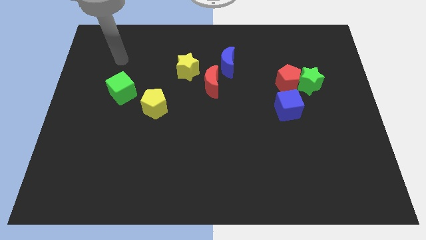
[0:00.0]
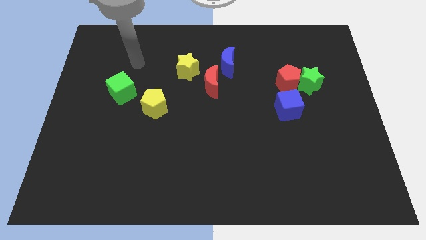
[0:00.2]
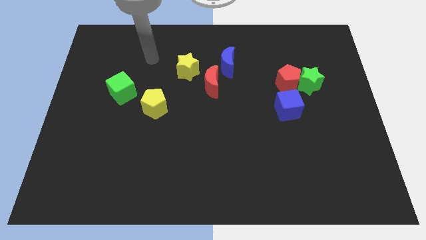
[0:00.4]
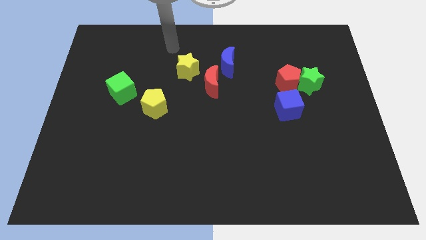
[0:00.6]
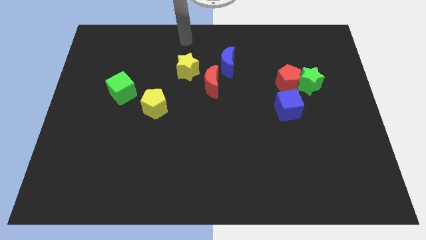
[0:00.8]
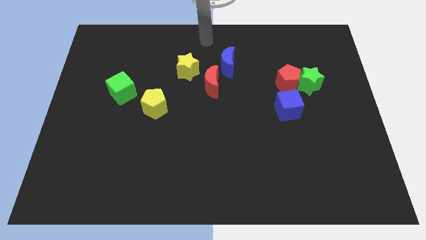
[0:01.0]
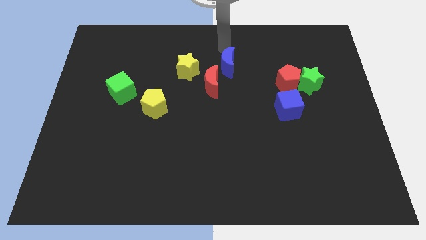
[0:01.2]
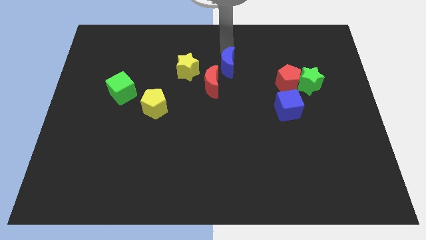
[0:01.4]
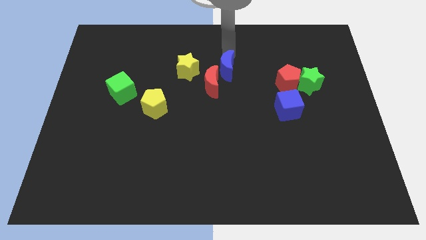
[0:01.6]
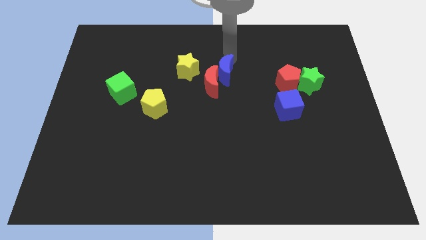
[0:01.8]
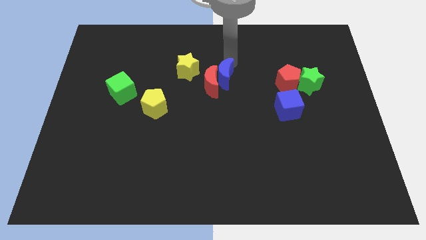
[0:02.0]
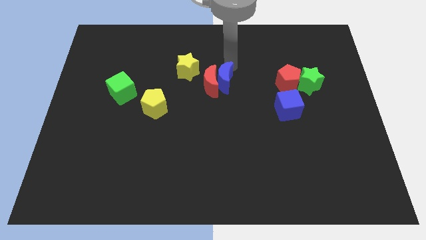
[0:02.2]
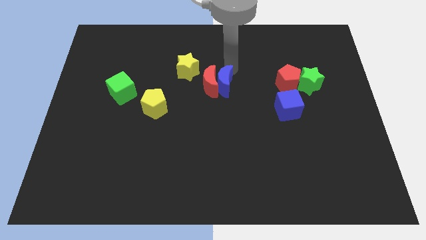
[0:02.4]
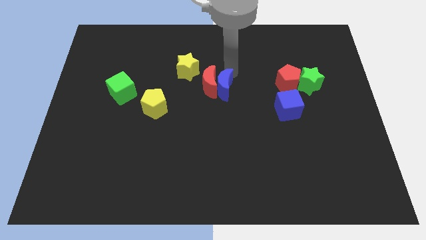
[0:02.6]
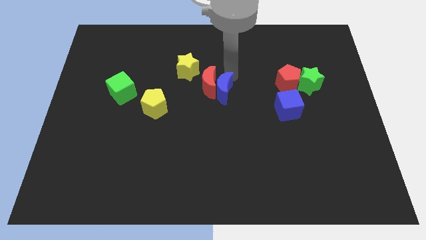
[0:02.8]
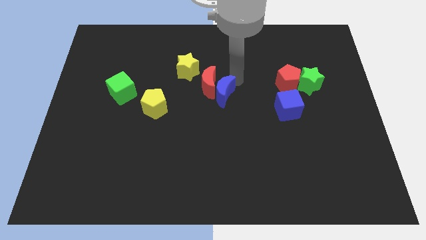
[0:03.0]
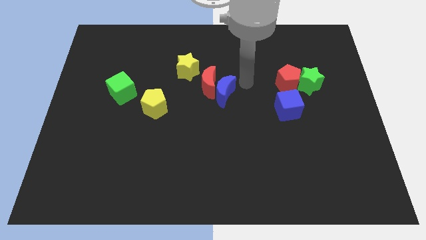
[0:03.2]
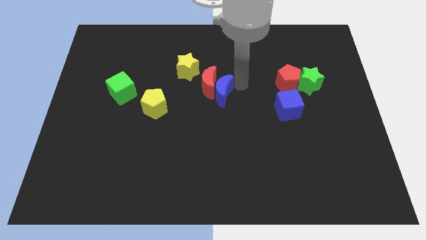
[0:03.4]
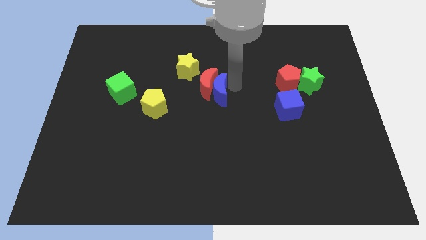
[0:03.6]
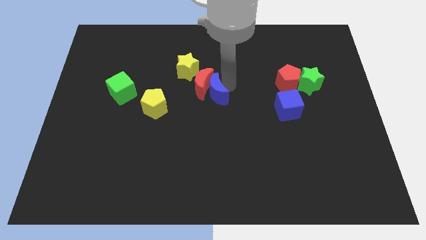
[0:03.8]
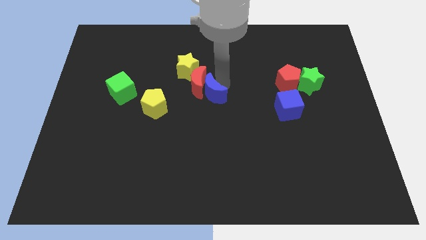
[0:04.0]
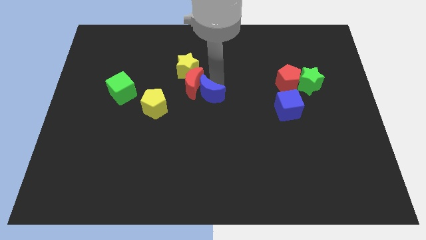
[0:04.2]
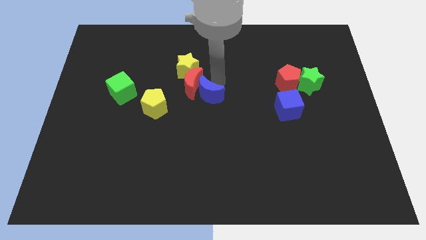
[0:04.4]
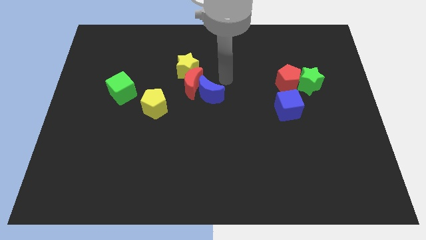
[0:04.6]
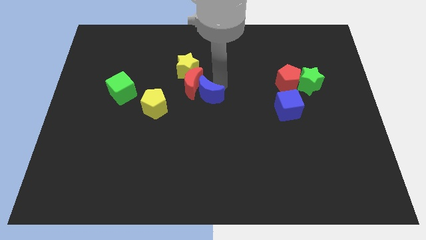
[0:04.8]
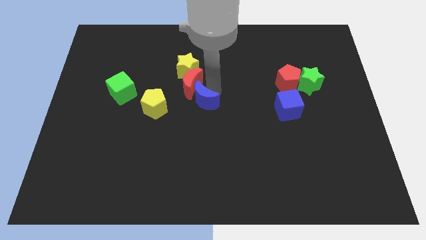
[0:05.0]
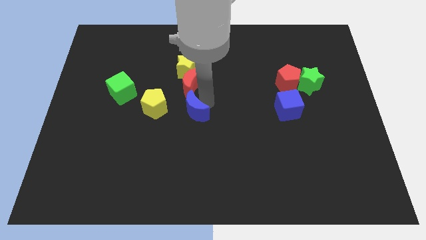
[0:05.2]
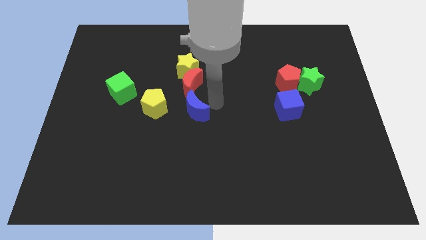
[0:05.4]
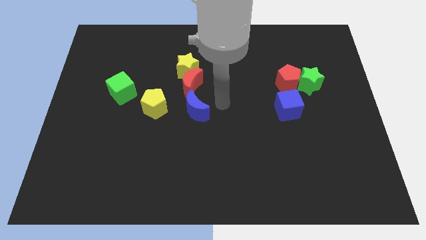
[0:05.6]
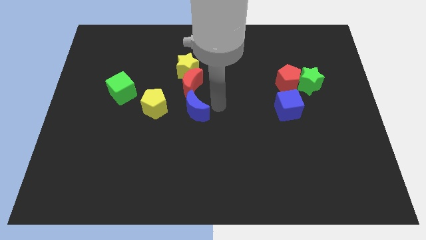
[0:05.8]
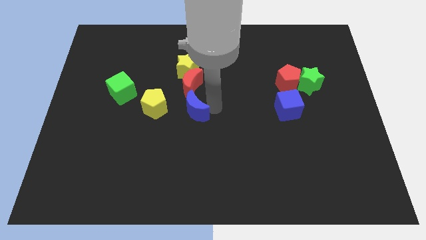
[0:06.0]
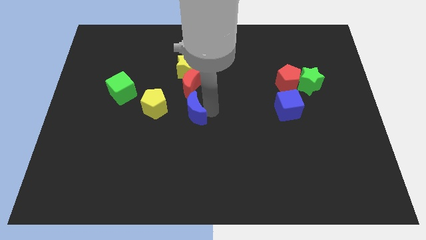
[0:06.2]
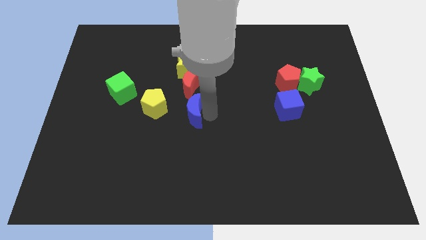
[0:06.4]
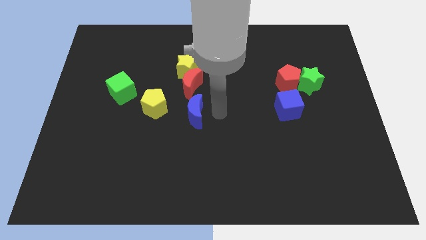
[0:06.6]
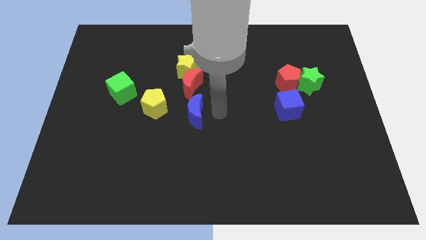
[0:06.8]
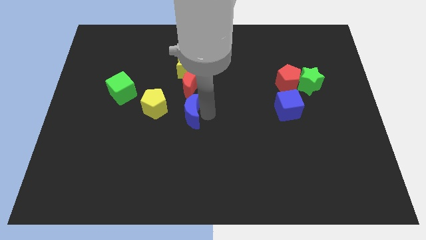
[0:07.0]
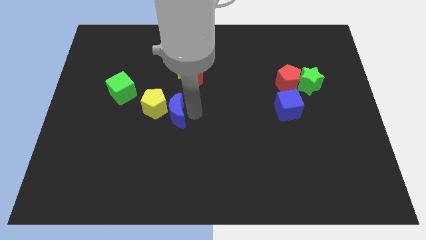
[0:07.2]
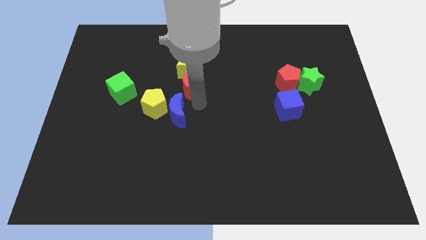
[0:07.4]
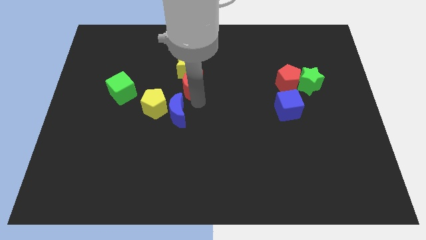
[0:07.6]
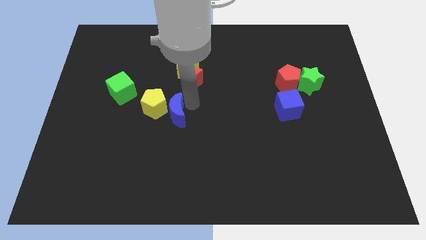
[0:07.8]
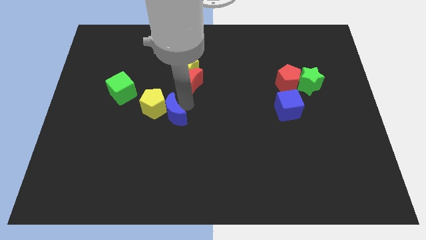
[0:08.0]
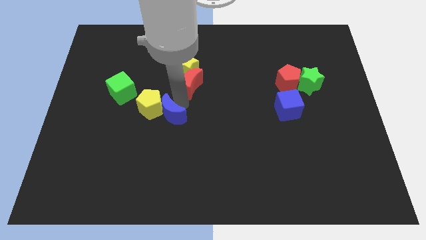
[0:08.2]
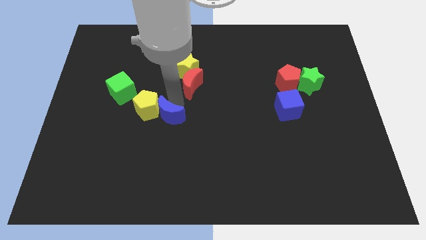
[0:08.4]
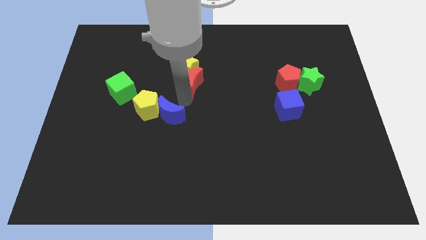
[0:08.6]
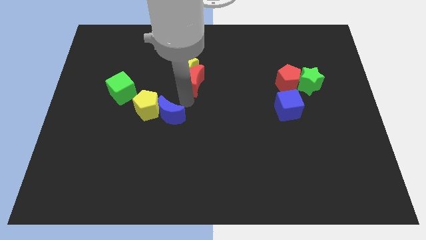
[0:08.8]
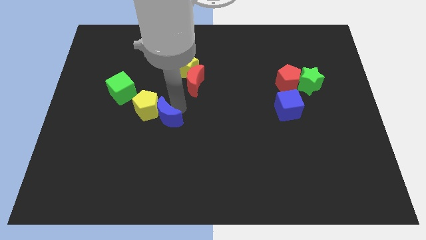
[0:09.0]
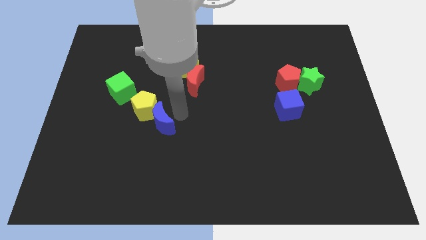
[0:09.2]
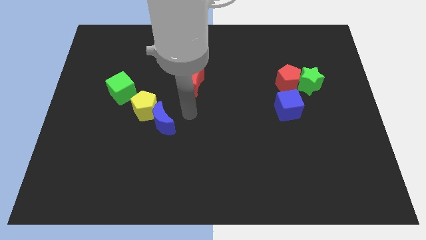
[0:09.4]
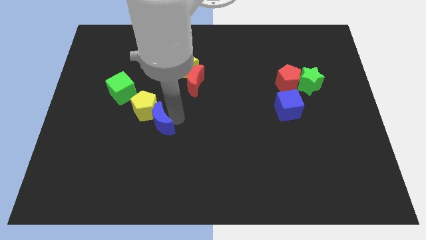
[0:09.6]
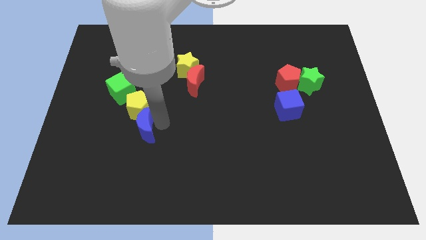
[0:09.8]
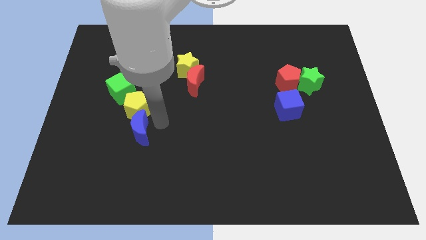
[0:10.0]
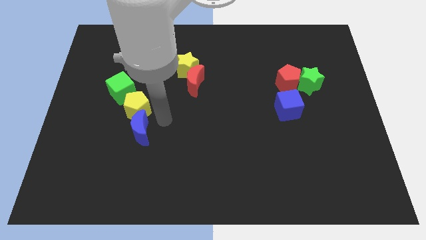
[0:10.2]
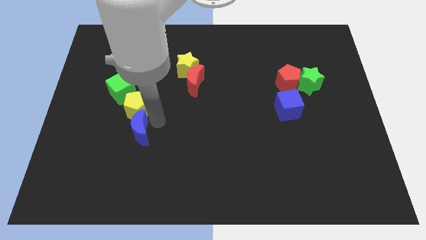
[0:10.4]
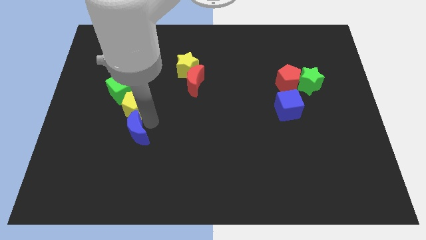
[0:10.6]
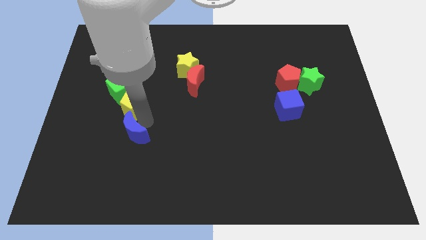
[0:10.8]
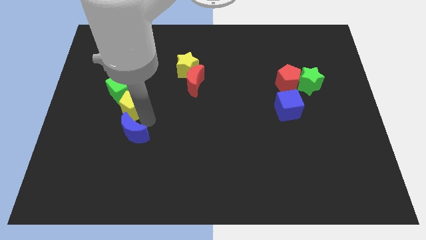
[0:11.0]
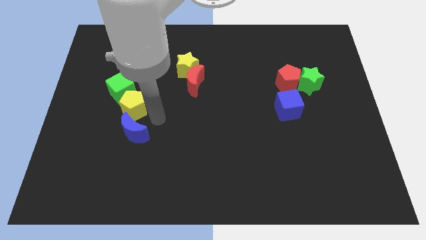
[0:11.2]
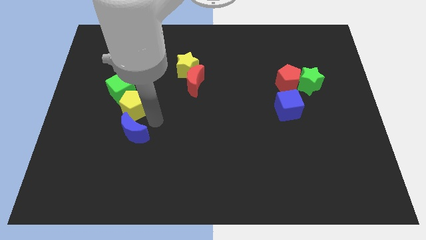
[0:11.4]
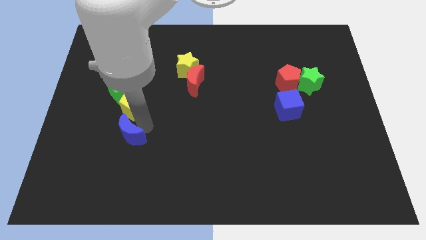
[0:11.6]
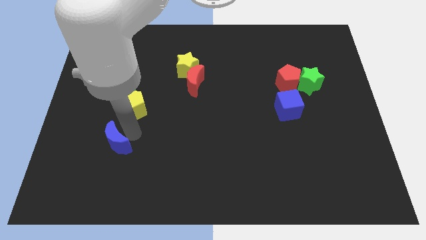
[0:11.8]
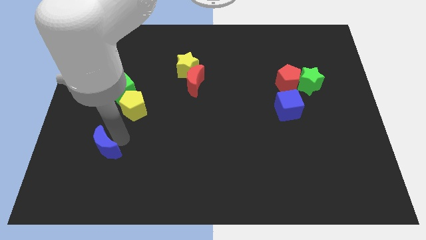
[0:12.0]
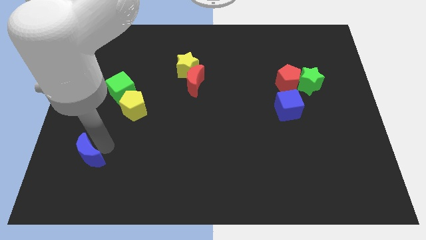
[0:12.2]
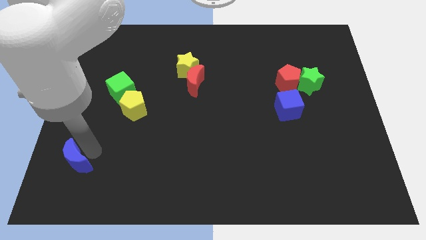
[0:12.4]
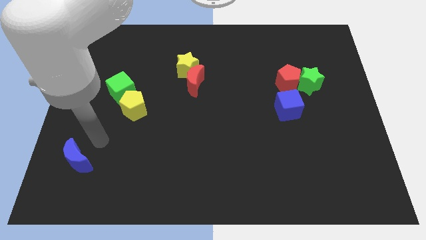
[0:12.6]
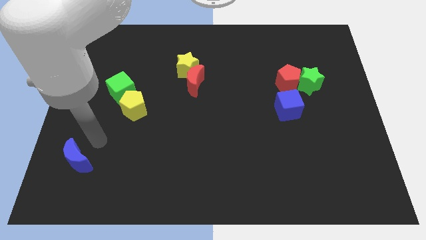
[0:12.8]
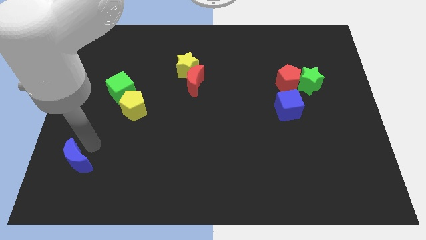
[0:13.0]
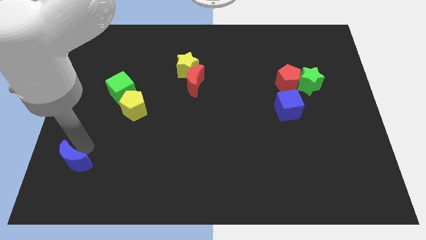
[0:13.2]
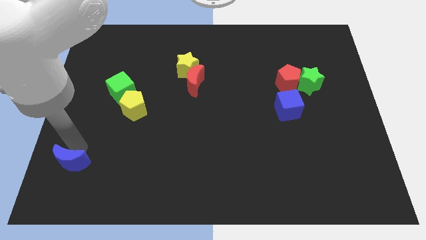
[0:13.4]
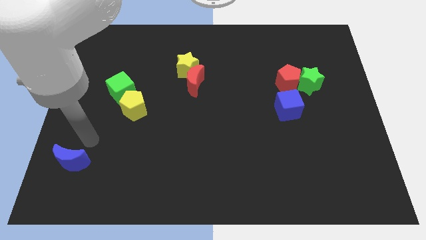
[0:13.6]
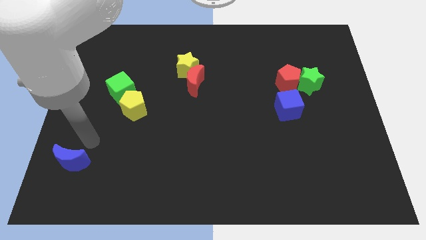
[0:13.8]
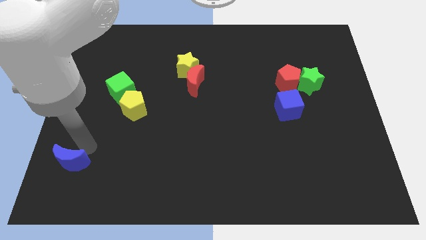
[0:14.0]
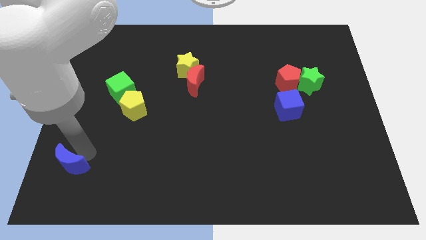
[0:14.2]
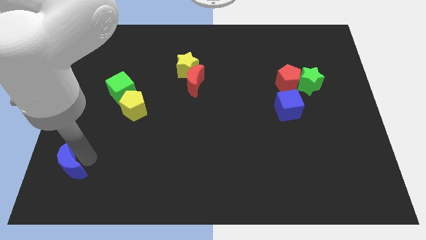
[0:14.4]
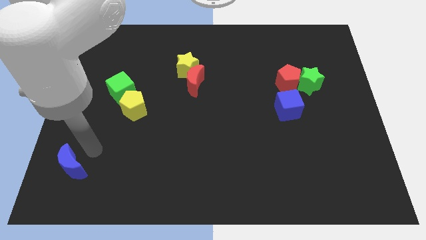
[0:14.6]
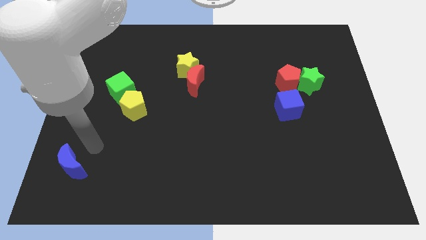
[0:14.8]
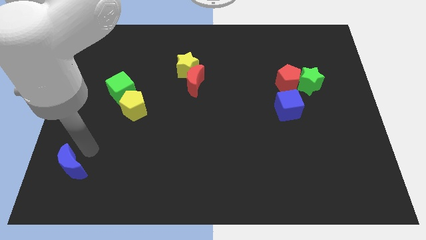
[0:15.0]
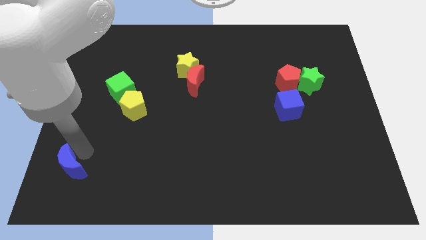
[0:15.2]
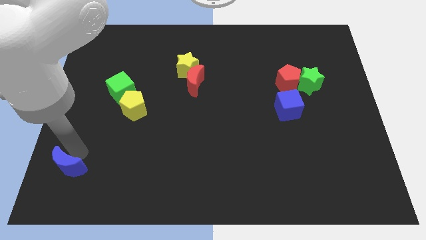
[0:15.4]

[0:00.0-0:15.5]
put the blue moon to the bottom left corner
